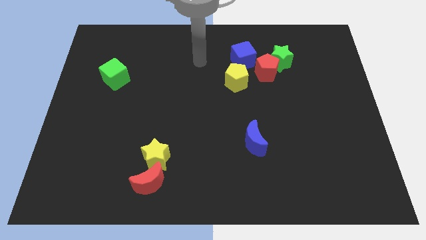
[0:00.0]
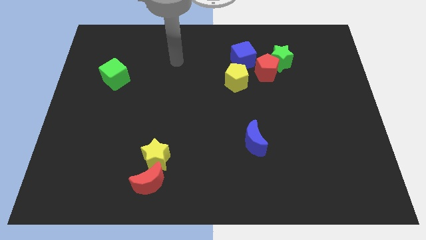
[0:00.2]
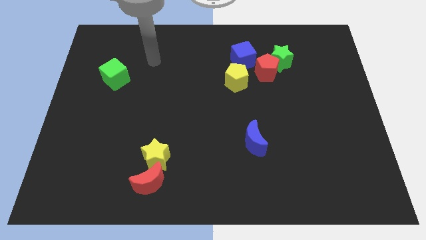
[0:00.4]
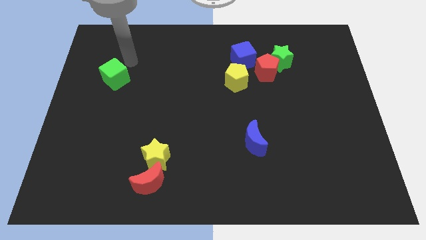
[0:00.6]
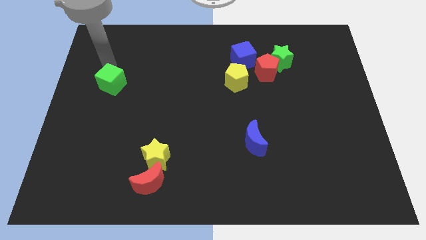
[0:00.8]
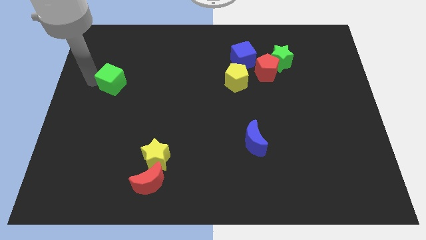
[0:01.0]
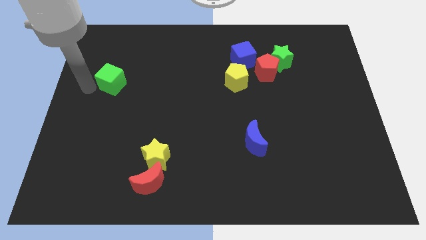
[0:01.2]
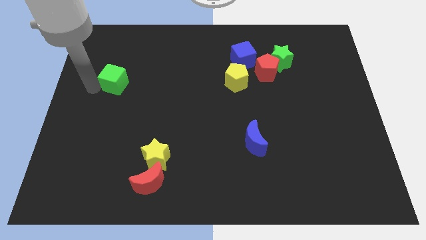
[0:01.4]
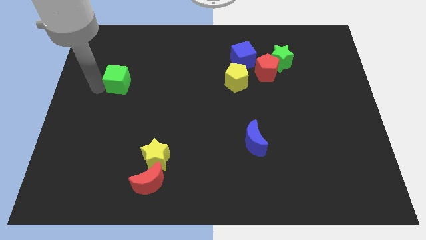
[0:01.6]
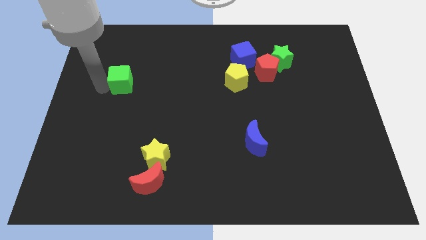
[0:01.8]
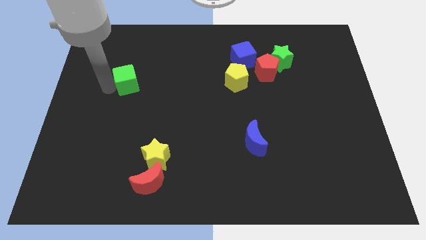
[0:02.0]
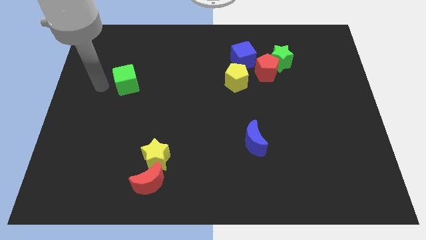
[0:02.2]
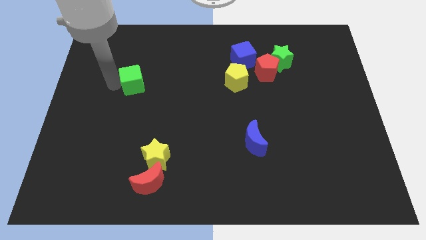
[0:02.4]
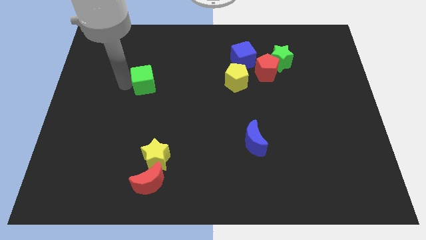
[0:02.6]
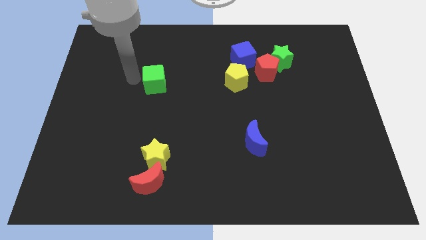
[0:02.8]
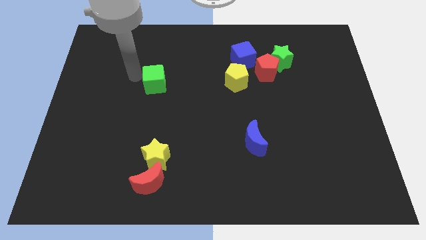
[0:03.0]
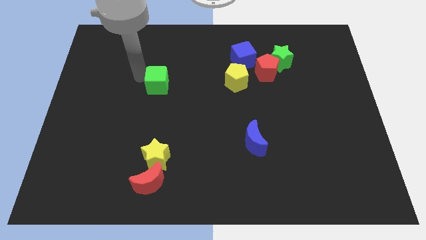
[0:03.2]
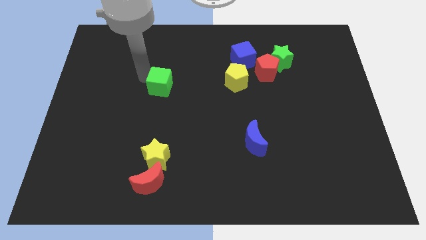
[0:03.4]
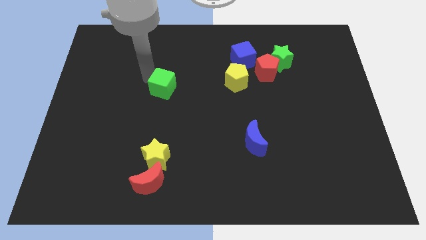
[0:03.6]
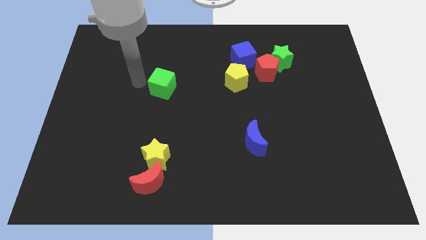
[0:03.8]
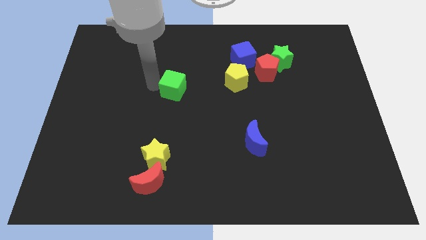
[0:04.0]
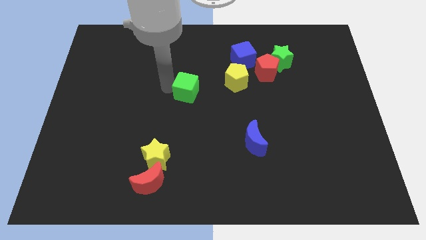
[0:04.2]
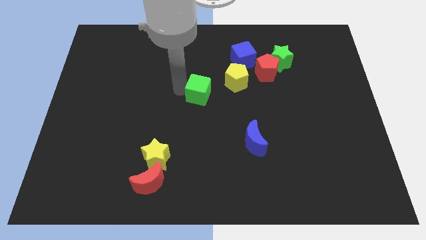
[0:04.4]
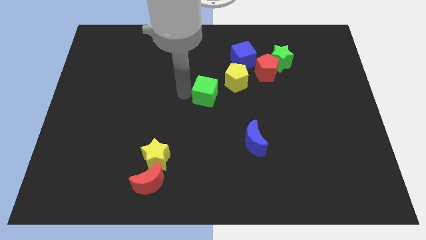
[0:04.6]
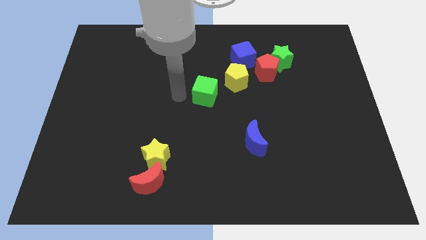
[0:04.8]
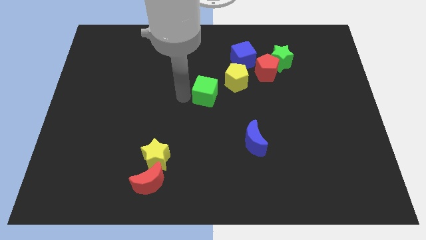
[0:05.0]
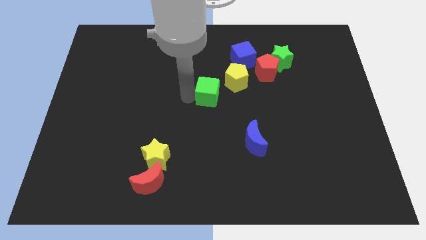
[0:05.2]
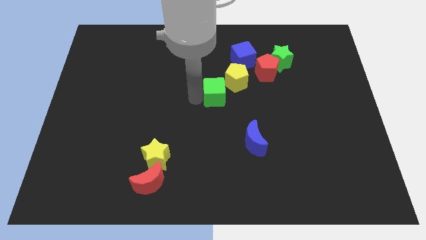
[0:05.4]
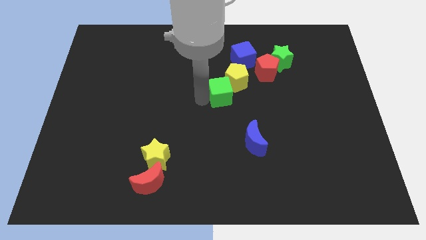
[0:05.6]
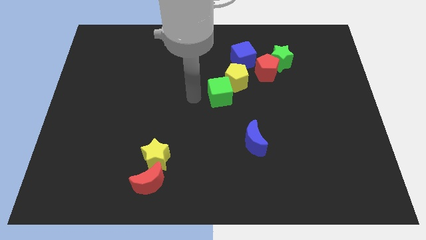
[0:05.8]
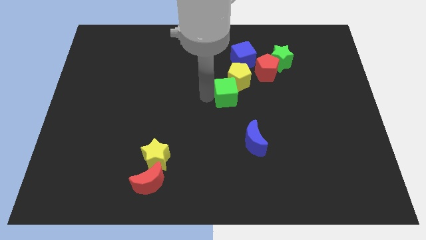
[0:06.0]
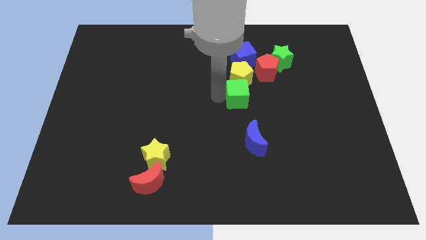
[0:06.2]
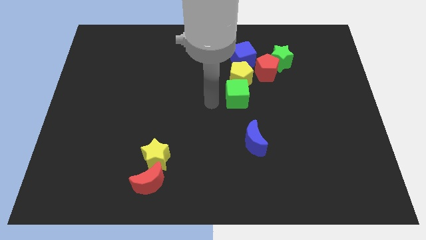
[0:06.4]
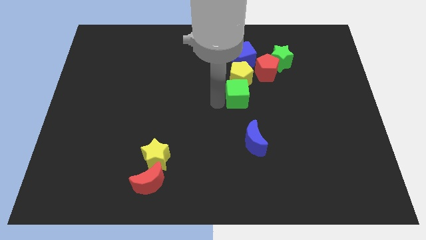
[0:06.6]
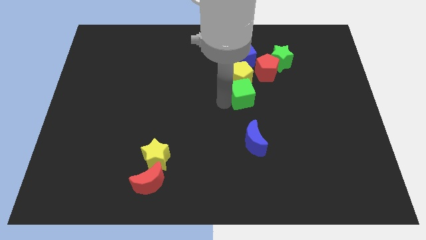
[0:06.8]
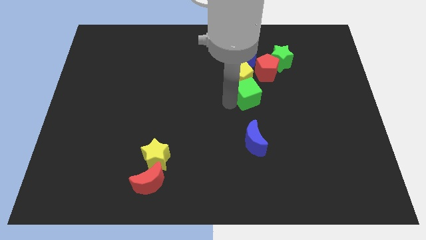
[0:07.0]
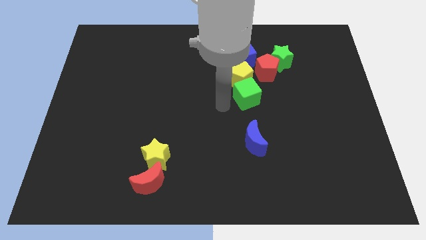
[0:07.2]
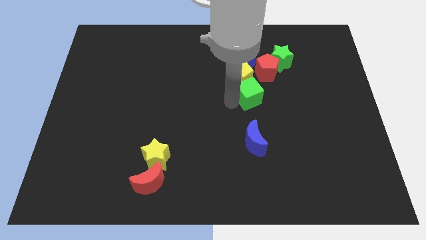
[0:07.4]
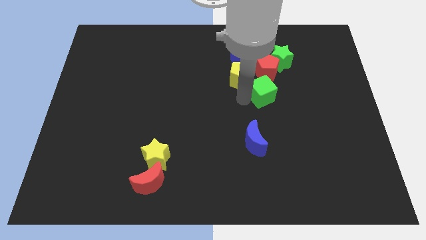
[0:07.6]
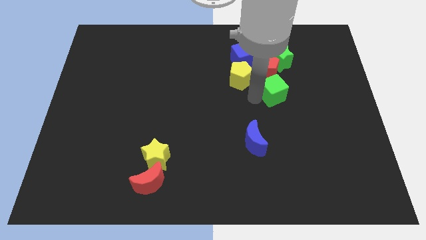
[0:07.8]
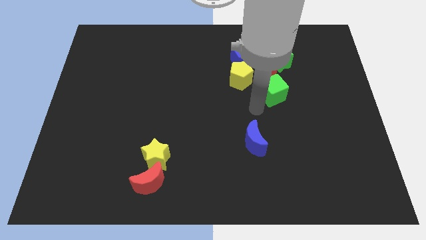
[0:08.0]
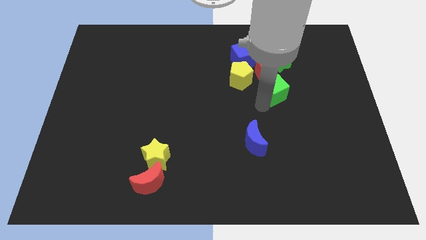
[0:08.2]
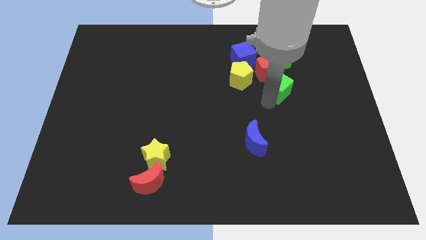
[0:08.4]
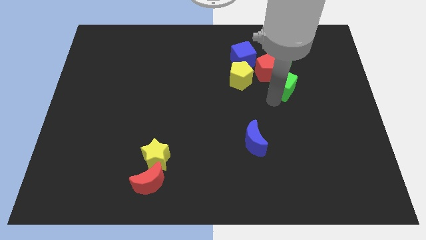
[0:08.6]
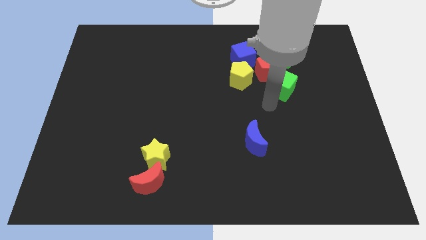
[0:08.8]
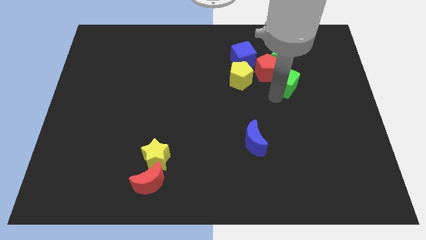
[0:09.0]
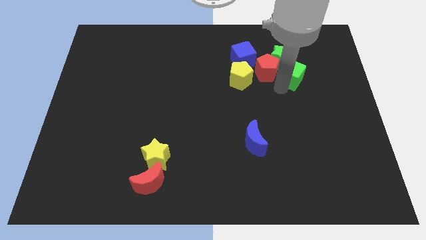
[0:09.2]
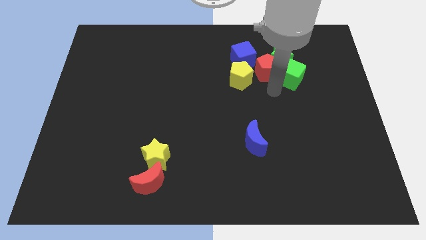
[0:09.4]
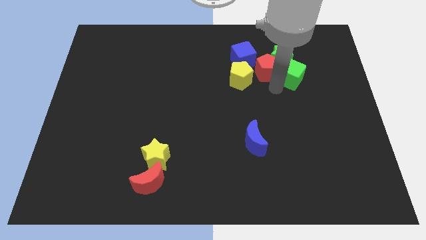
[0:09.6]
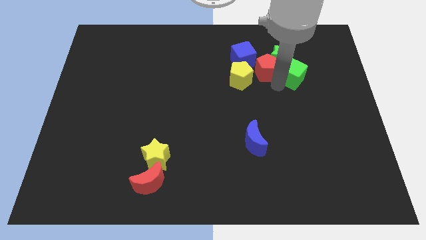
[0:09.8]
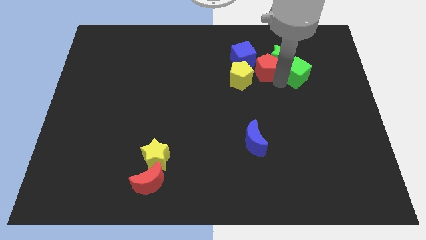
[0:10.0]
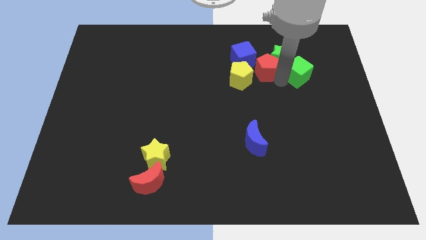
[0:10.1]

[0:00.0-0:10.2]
put the green cube to the right of the green star

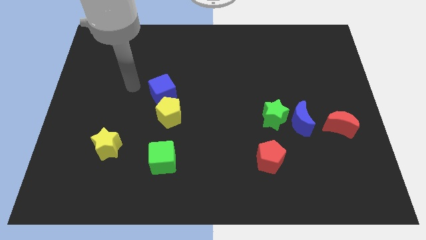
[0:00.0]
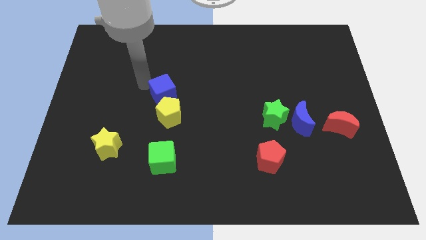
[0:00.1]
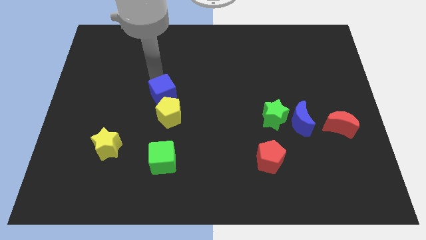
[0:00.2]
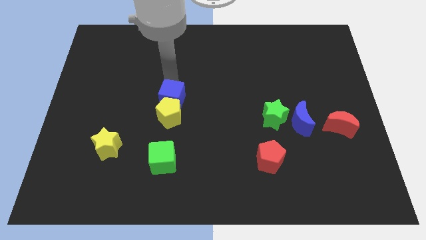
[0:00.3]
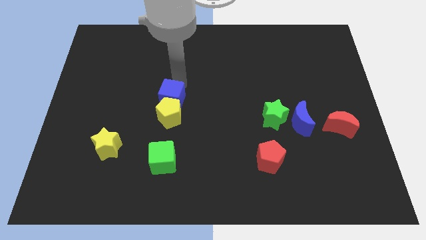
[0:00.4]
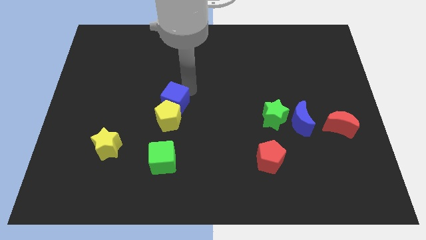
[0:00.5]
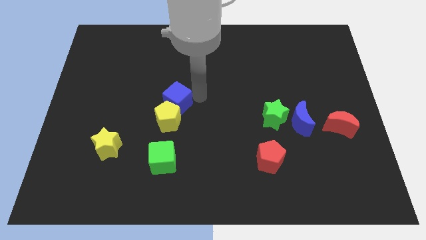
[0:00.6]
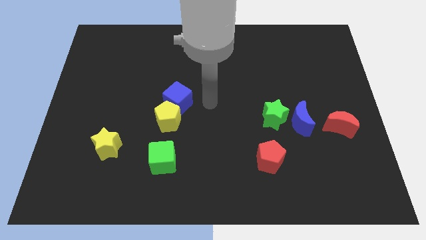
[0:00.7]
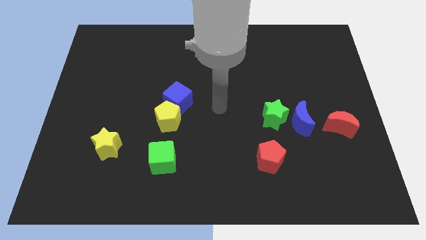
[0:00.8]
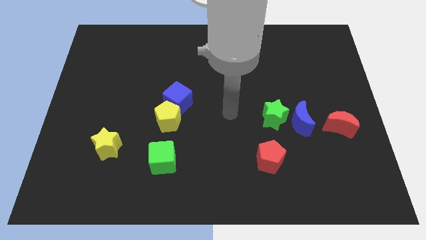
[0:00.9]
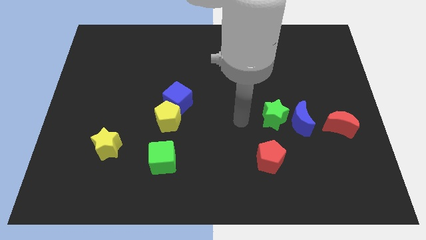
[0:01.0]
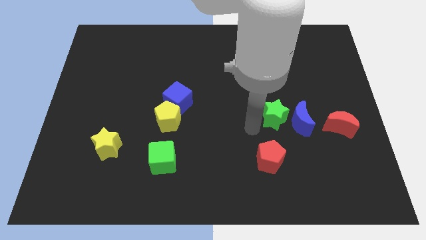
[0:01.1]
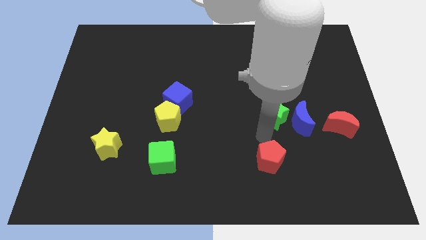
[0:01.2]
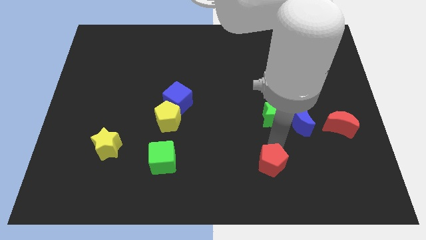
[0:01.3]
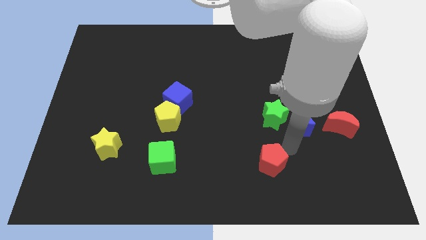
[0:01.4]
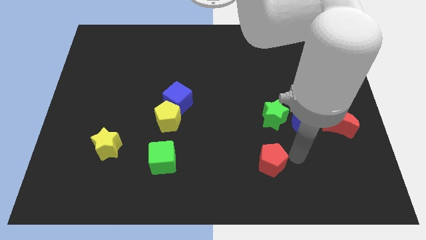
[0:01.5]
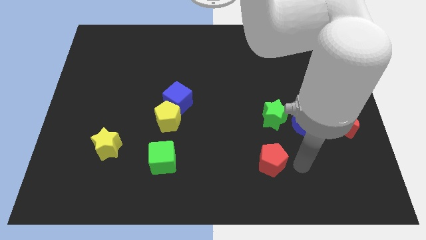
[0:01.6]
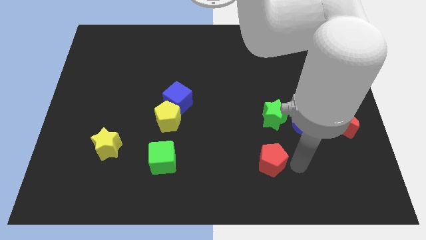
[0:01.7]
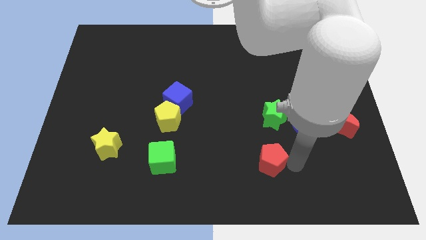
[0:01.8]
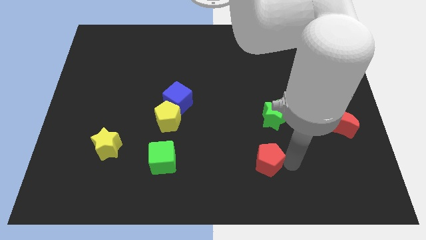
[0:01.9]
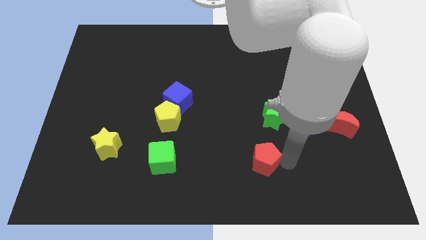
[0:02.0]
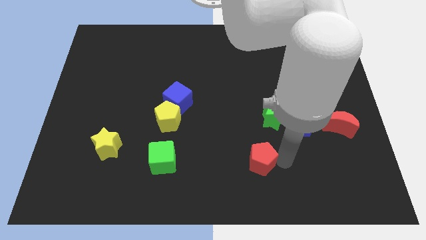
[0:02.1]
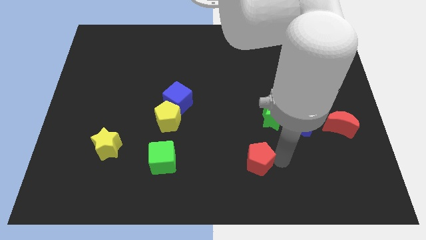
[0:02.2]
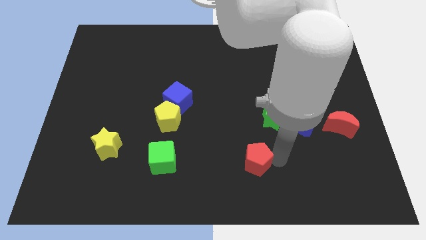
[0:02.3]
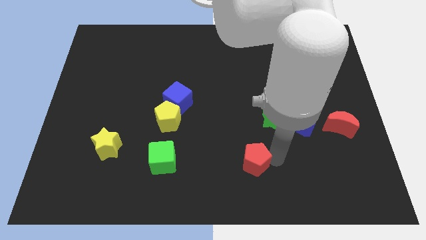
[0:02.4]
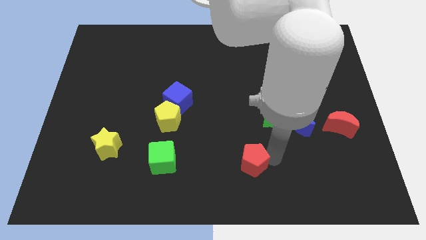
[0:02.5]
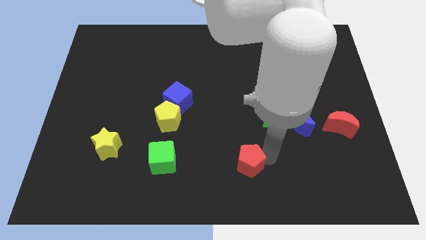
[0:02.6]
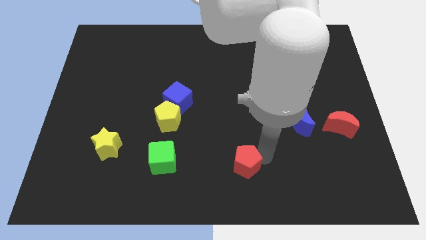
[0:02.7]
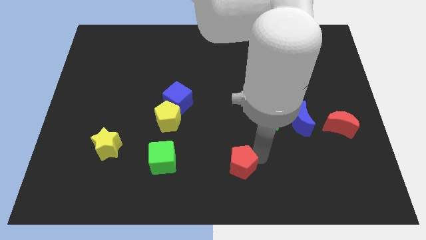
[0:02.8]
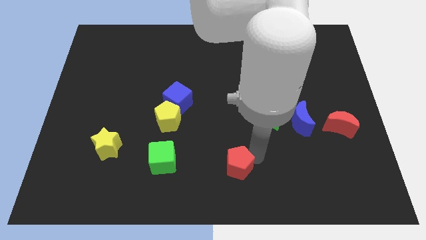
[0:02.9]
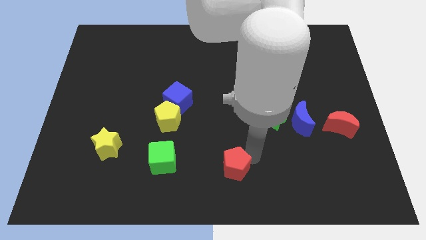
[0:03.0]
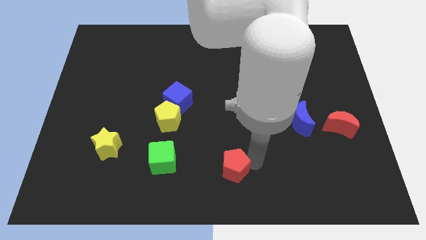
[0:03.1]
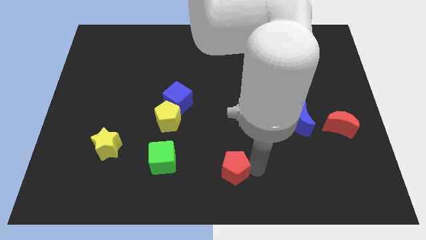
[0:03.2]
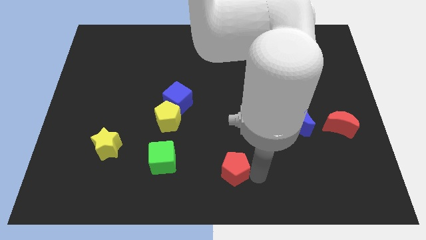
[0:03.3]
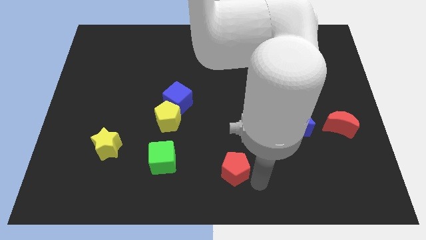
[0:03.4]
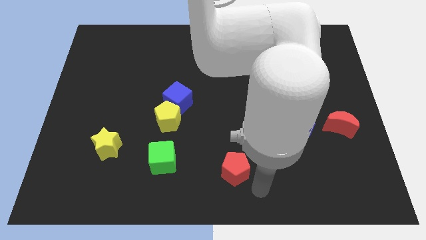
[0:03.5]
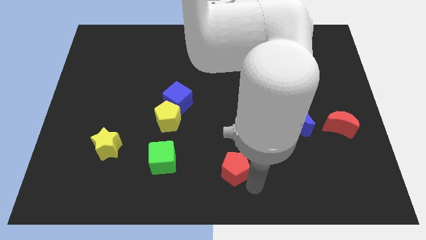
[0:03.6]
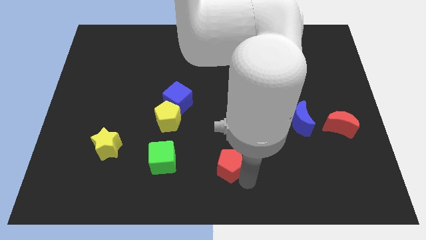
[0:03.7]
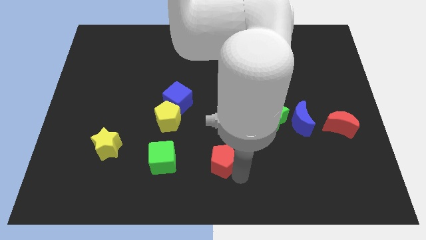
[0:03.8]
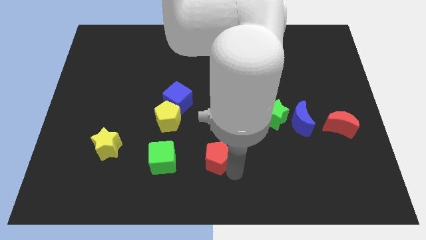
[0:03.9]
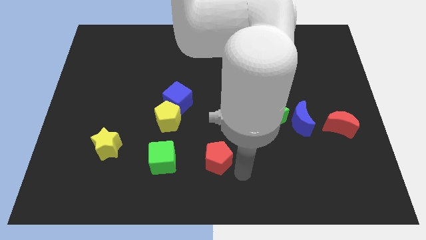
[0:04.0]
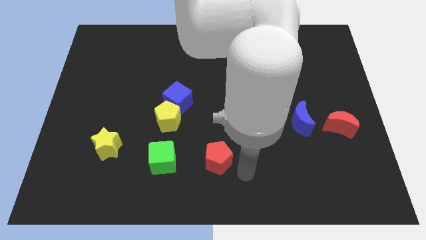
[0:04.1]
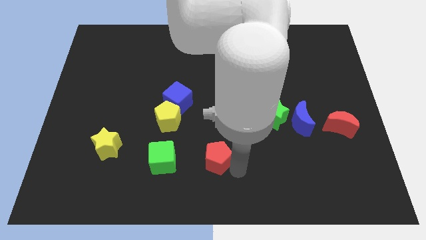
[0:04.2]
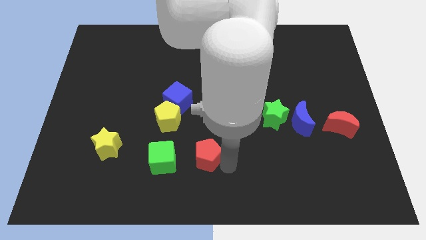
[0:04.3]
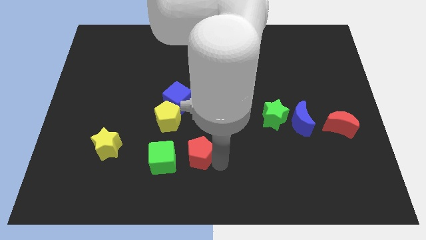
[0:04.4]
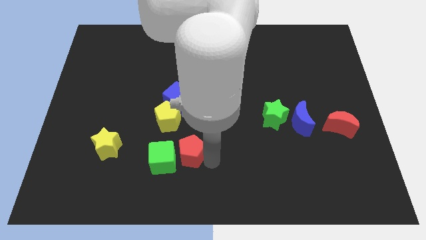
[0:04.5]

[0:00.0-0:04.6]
move the red pentagon to the bottom of the blue cube
